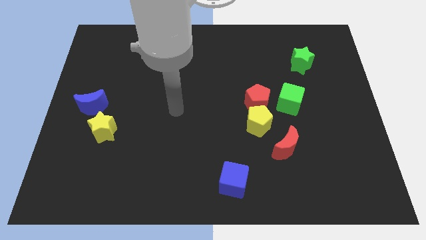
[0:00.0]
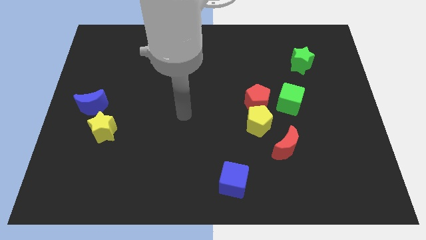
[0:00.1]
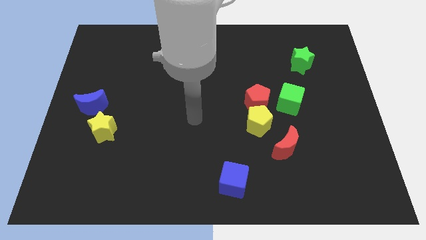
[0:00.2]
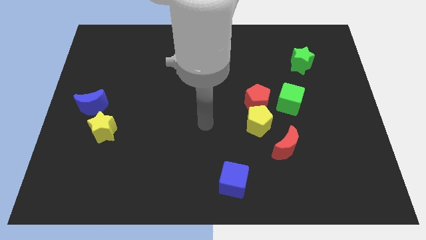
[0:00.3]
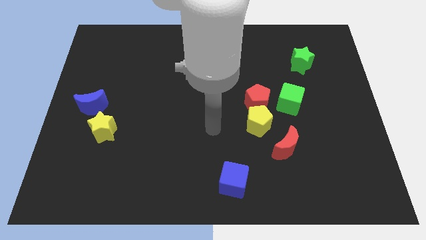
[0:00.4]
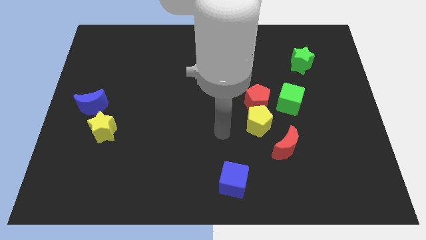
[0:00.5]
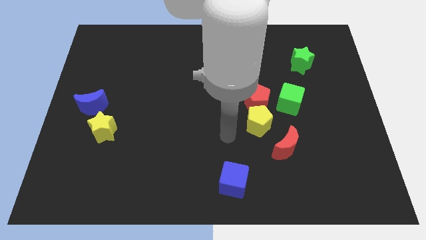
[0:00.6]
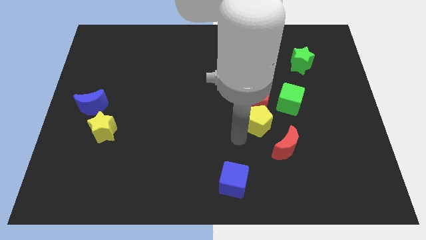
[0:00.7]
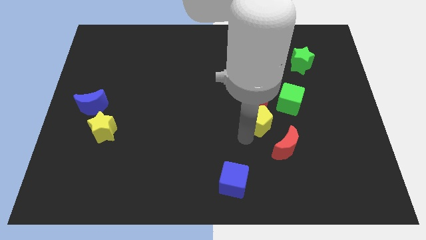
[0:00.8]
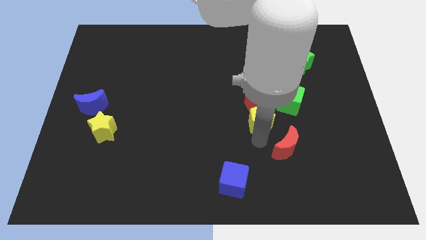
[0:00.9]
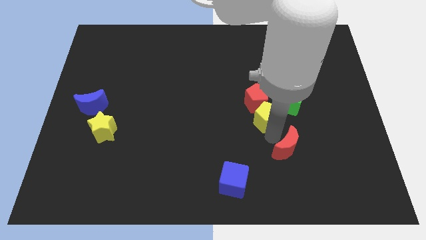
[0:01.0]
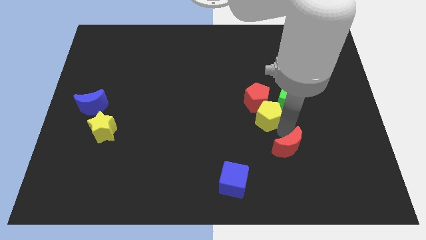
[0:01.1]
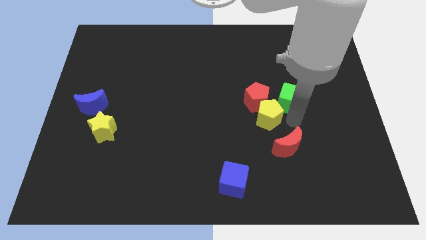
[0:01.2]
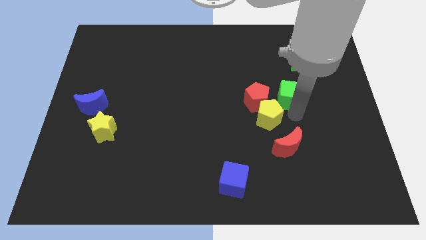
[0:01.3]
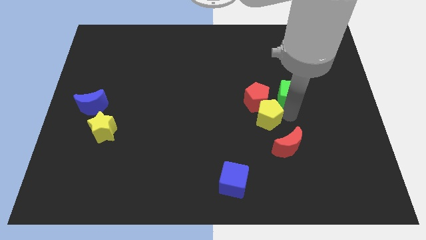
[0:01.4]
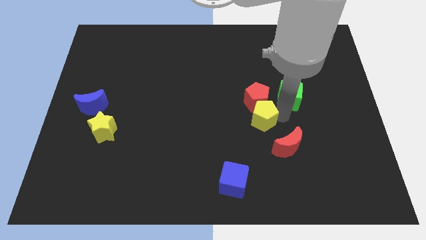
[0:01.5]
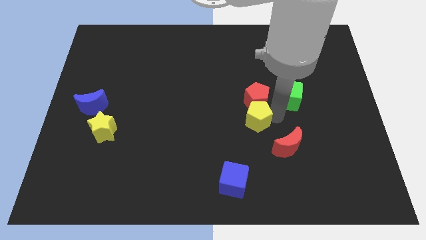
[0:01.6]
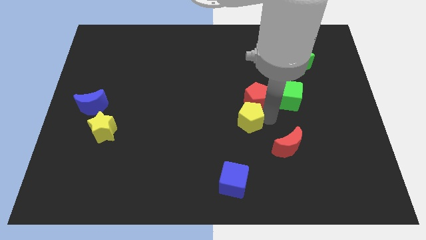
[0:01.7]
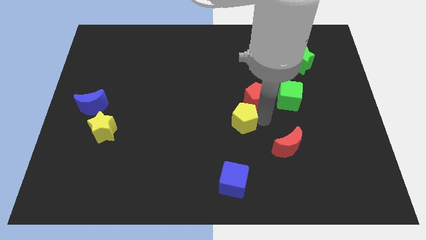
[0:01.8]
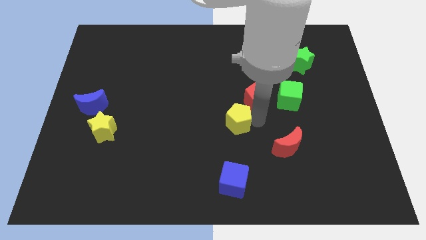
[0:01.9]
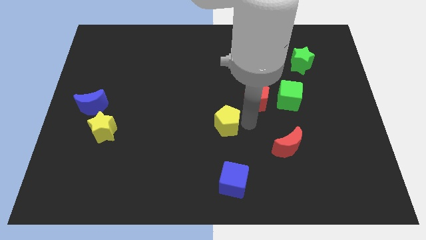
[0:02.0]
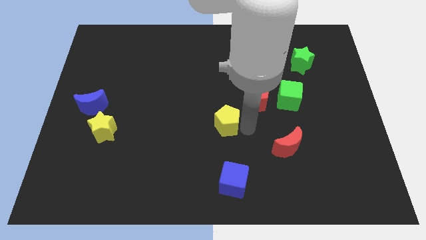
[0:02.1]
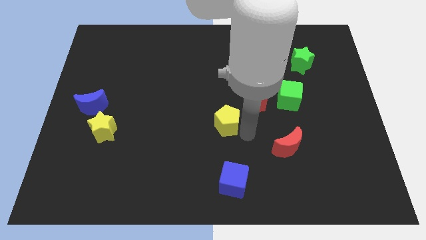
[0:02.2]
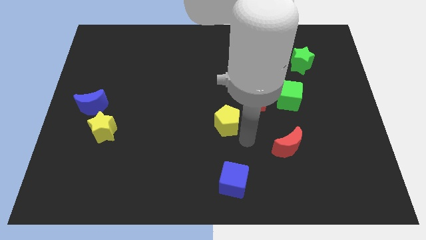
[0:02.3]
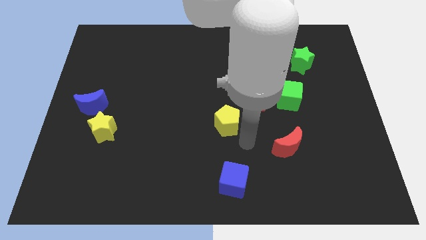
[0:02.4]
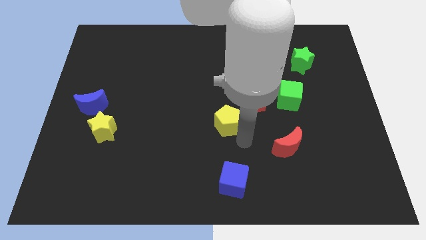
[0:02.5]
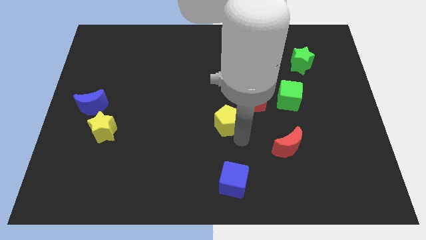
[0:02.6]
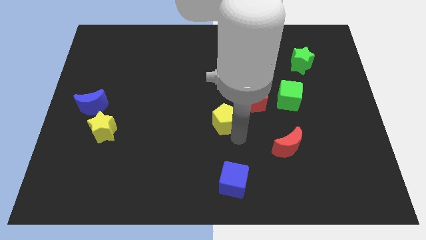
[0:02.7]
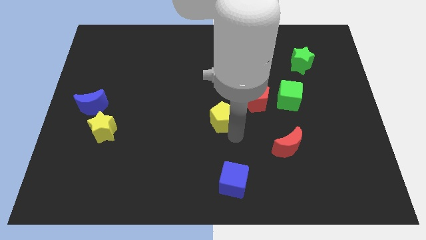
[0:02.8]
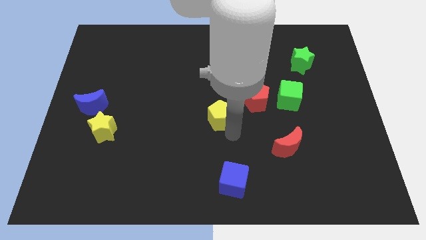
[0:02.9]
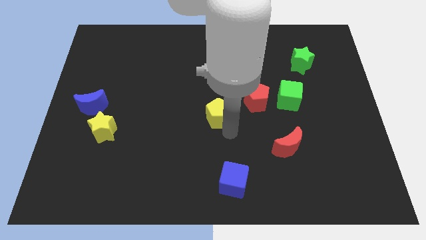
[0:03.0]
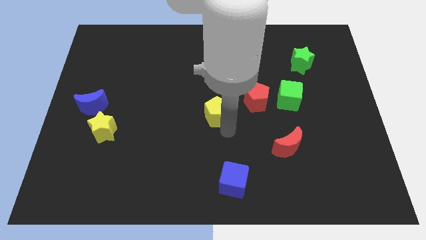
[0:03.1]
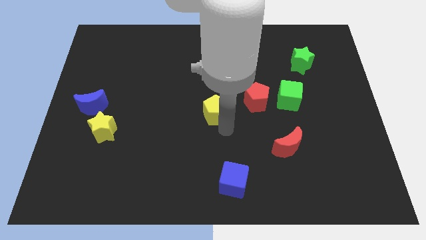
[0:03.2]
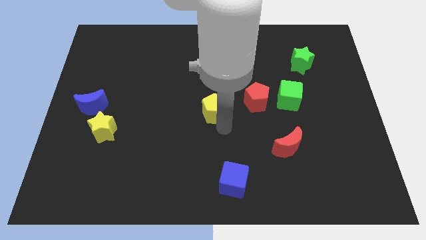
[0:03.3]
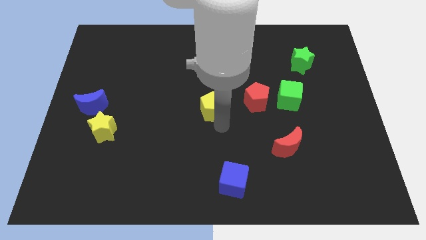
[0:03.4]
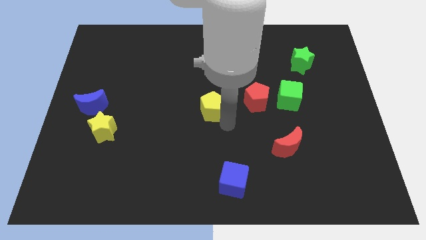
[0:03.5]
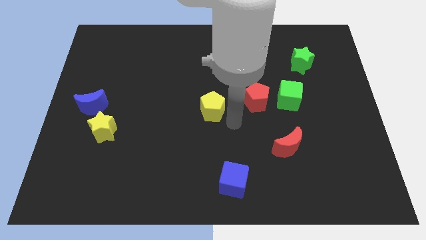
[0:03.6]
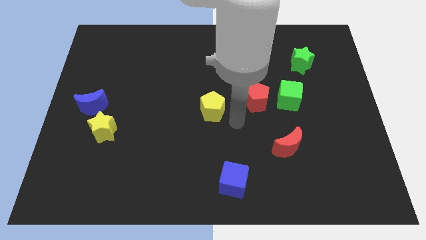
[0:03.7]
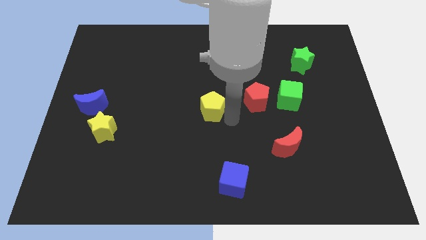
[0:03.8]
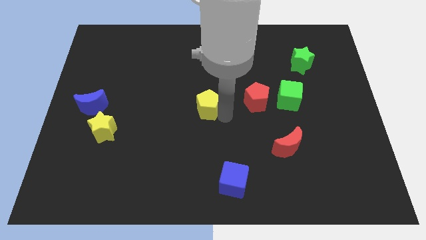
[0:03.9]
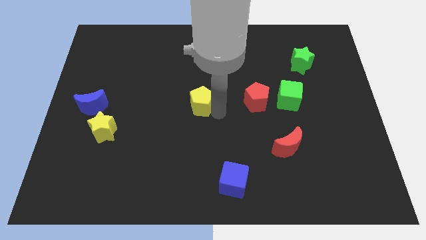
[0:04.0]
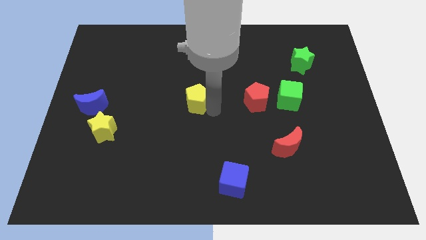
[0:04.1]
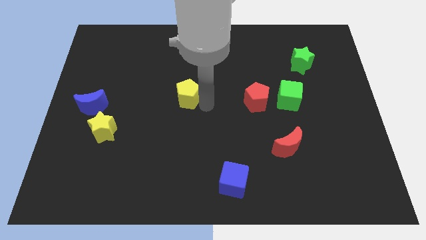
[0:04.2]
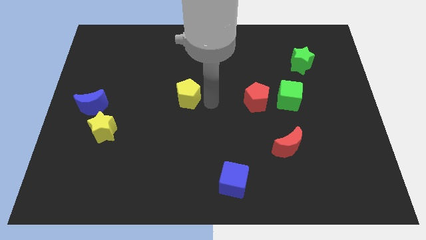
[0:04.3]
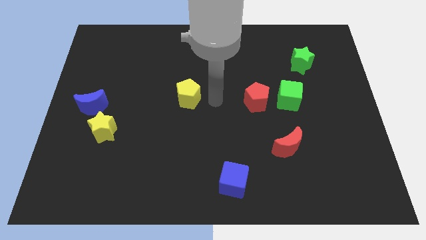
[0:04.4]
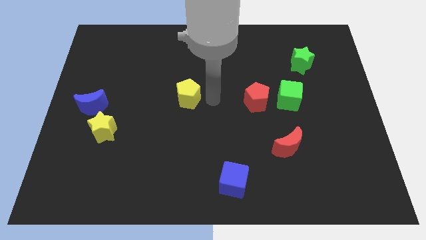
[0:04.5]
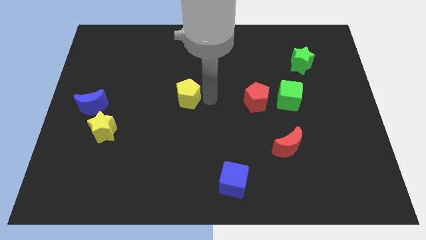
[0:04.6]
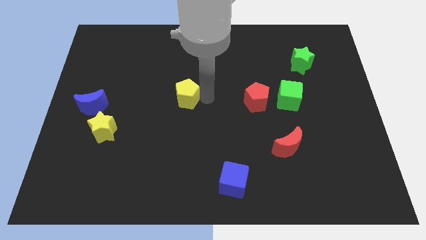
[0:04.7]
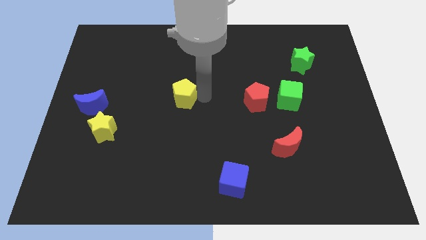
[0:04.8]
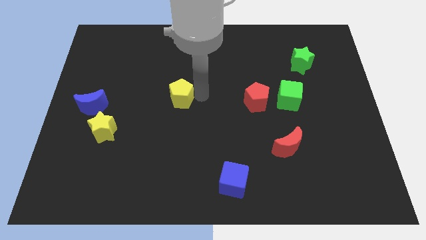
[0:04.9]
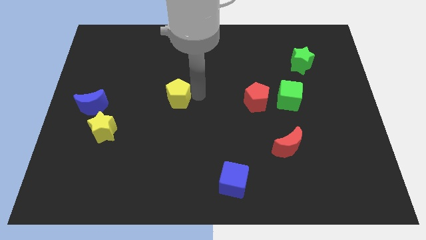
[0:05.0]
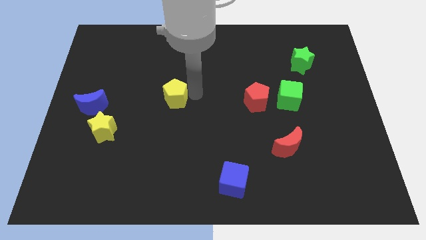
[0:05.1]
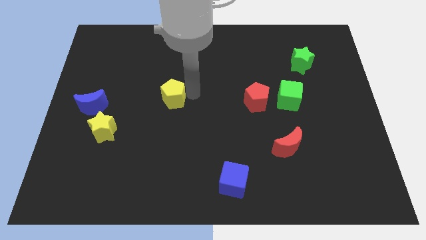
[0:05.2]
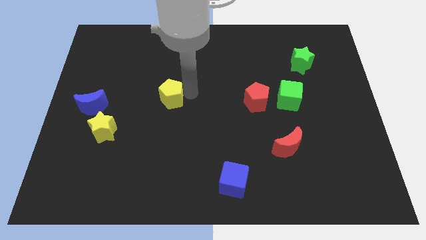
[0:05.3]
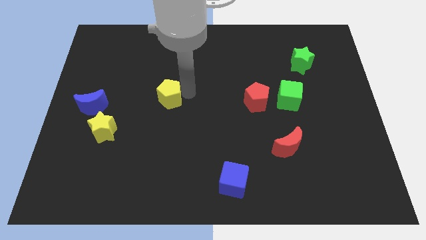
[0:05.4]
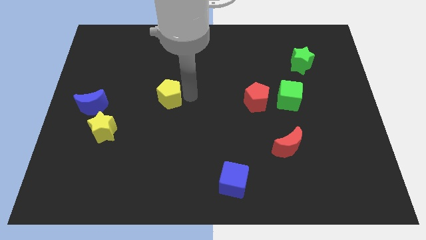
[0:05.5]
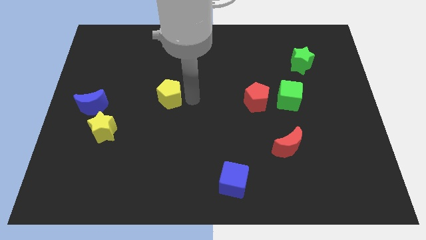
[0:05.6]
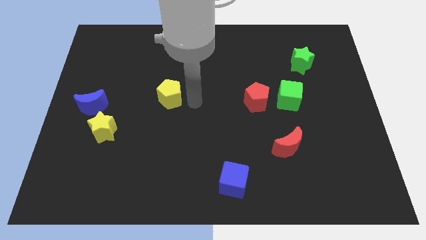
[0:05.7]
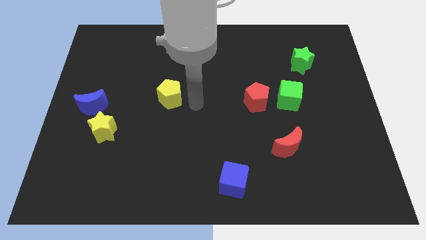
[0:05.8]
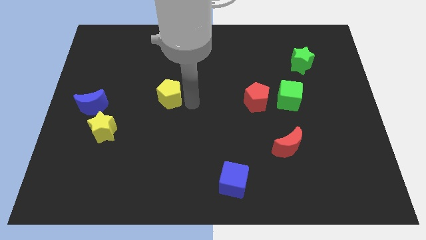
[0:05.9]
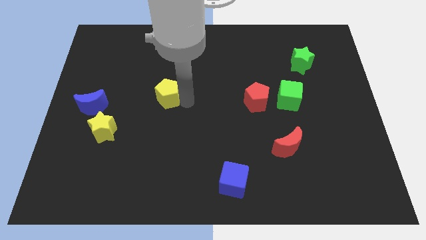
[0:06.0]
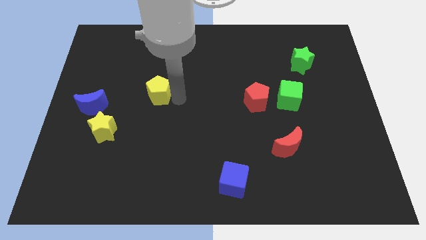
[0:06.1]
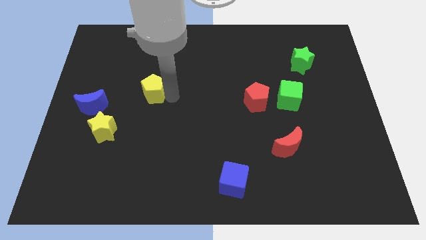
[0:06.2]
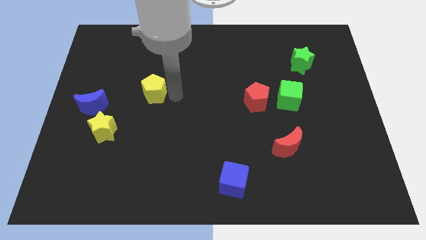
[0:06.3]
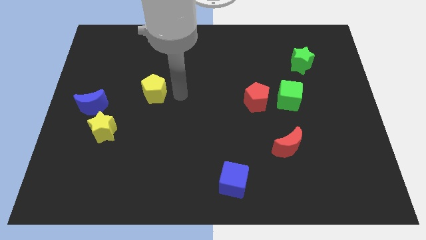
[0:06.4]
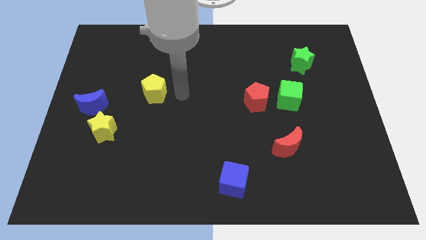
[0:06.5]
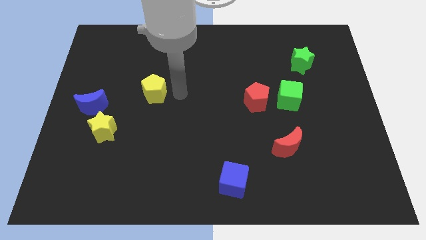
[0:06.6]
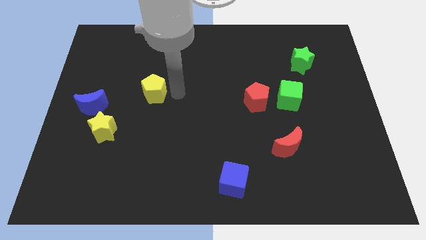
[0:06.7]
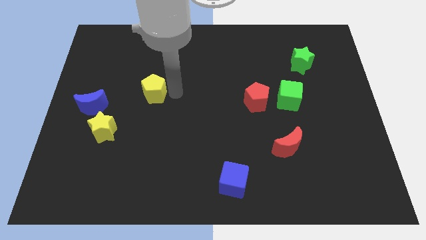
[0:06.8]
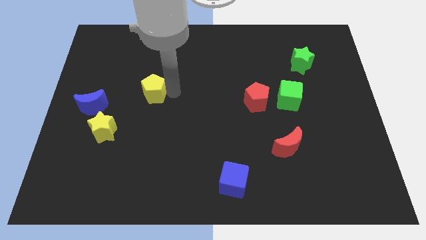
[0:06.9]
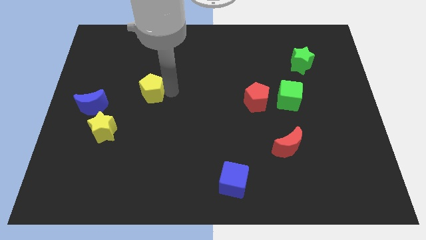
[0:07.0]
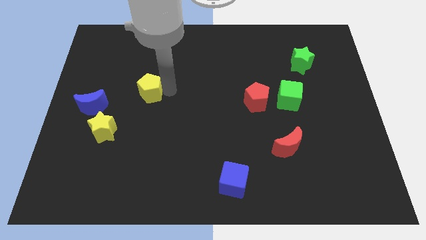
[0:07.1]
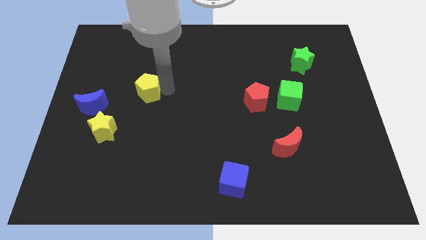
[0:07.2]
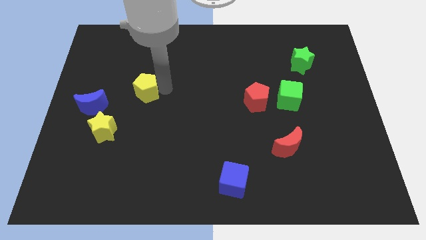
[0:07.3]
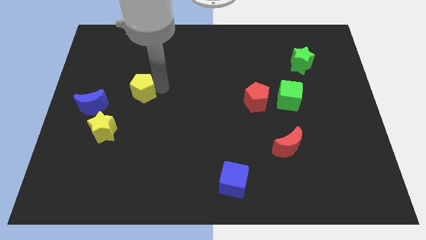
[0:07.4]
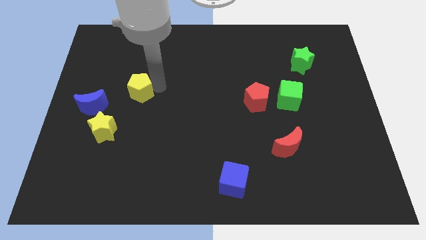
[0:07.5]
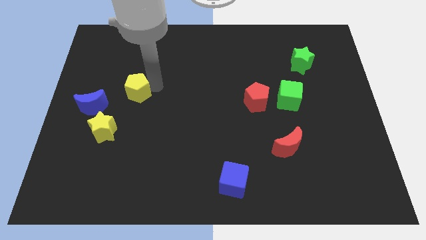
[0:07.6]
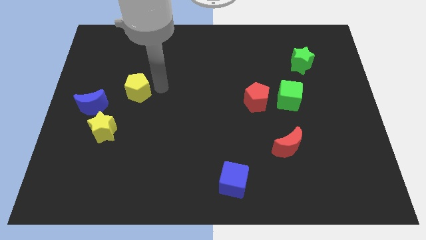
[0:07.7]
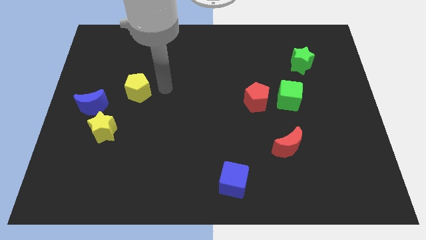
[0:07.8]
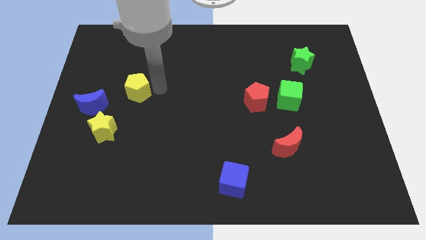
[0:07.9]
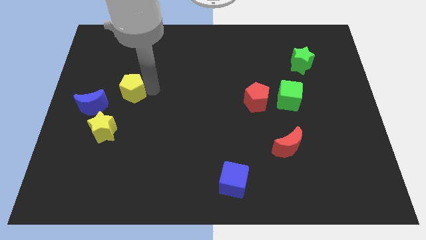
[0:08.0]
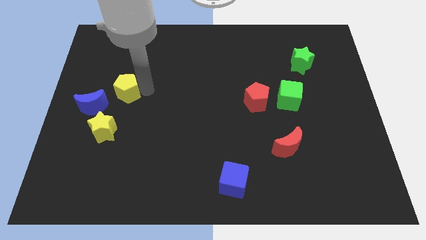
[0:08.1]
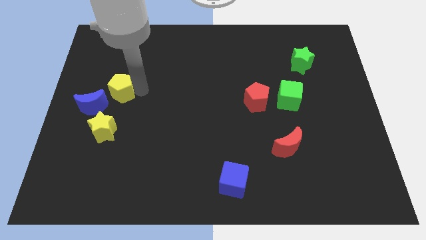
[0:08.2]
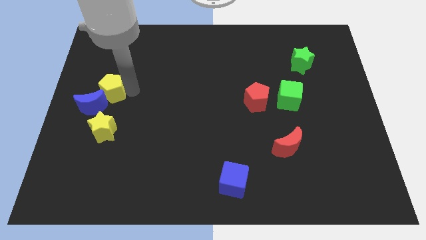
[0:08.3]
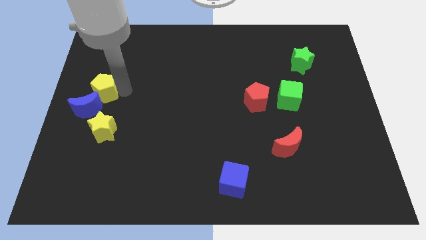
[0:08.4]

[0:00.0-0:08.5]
move the yellow pentagon to the left side of the board
